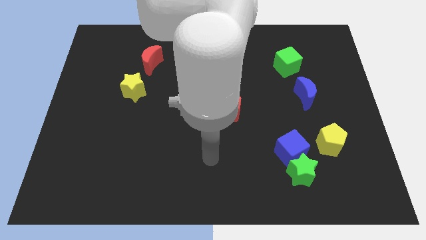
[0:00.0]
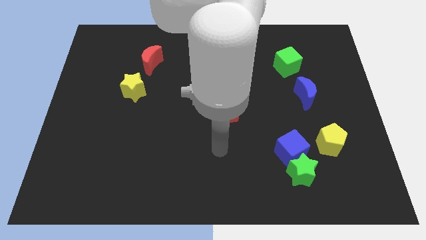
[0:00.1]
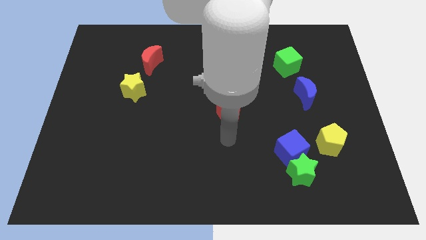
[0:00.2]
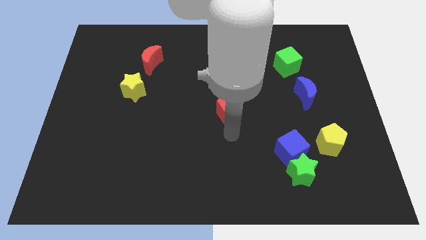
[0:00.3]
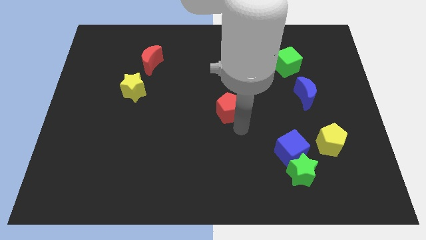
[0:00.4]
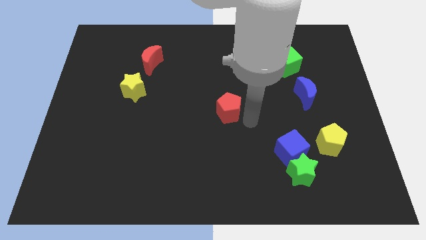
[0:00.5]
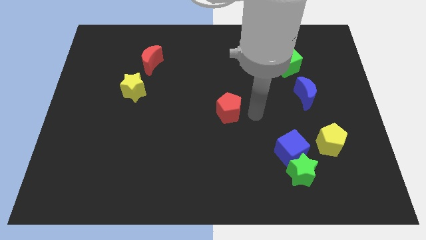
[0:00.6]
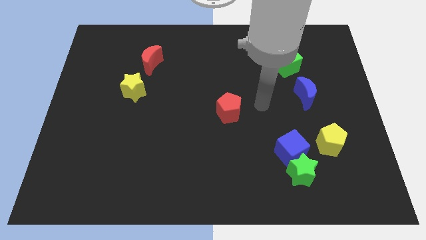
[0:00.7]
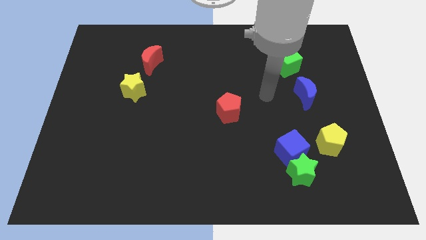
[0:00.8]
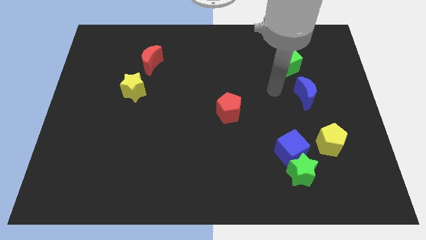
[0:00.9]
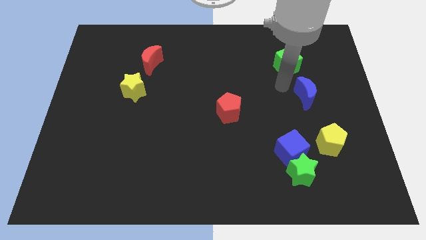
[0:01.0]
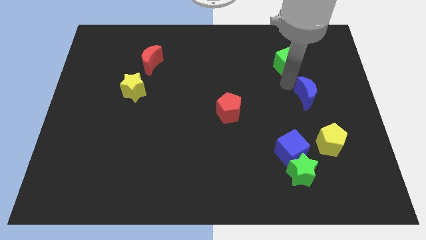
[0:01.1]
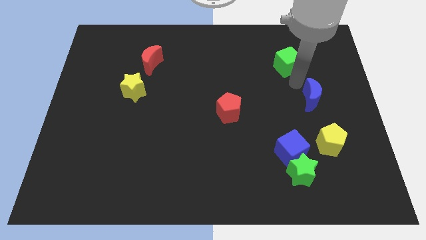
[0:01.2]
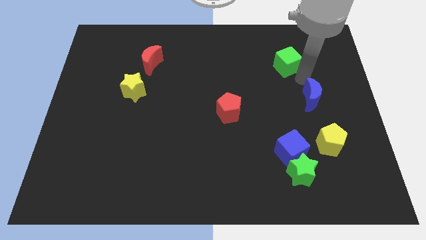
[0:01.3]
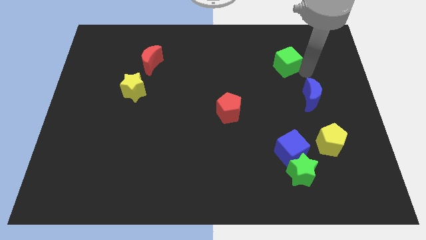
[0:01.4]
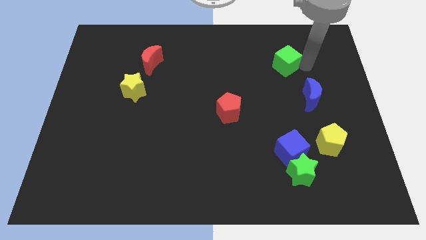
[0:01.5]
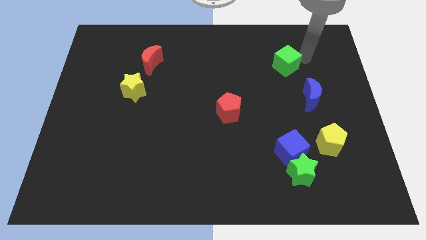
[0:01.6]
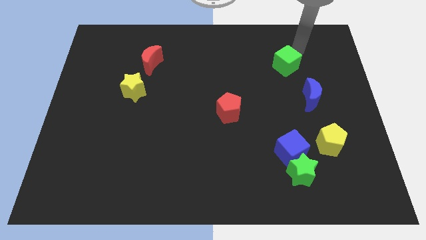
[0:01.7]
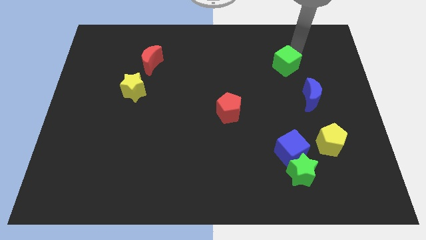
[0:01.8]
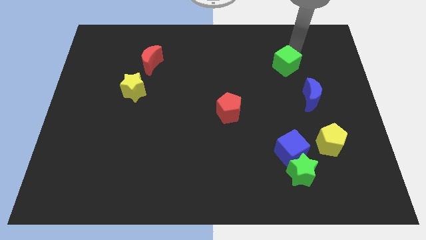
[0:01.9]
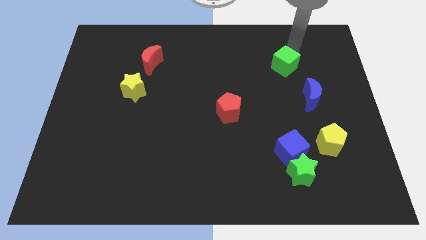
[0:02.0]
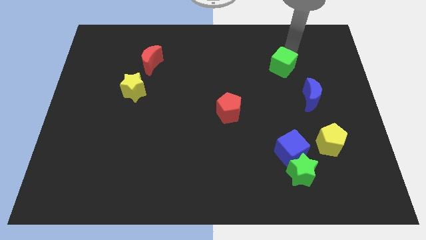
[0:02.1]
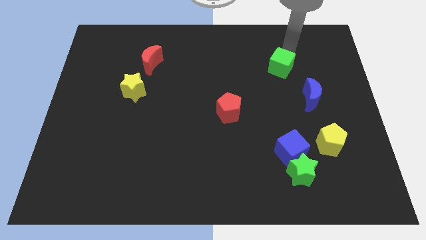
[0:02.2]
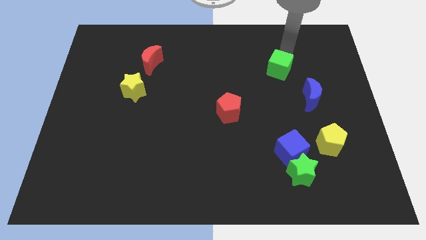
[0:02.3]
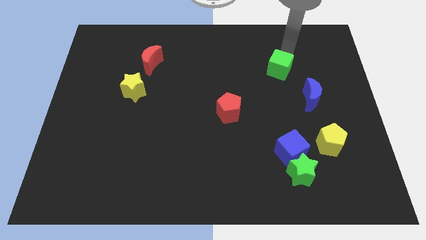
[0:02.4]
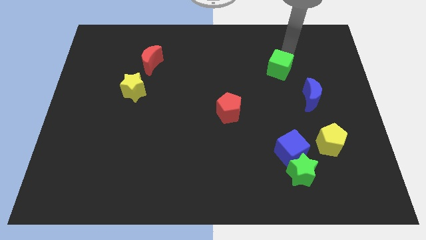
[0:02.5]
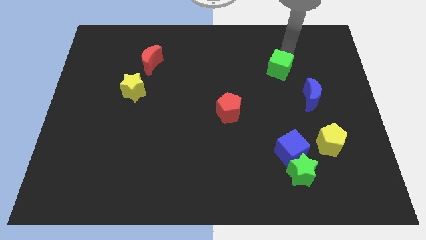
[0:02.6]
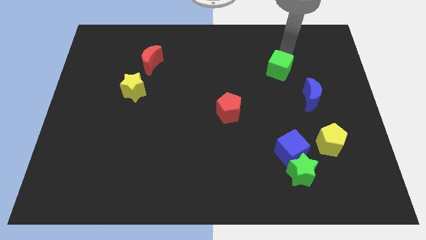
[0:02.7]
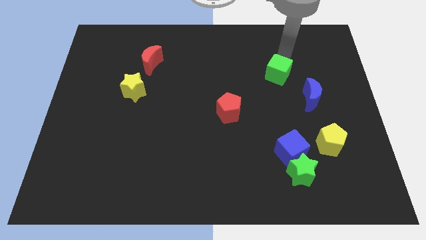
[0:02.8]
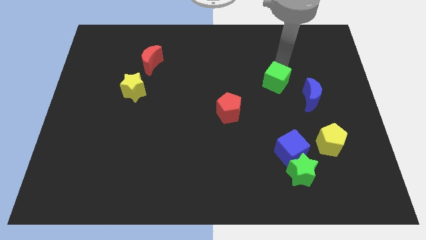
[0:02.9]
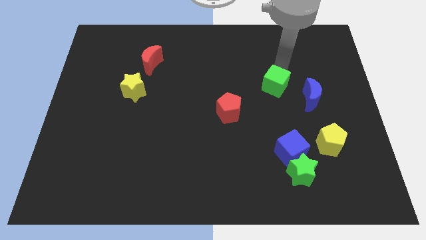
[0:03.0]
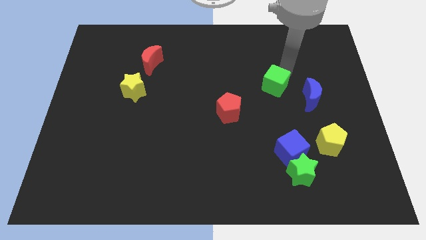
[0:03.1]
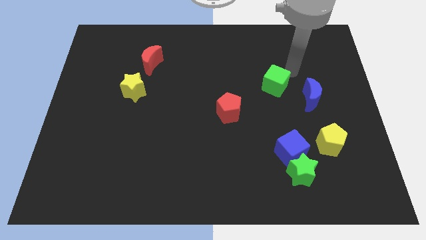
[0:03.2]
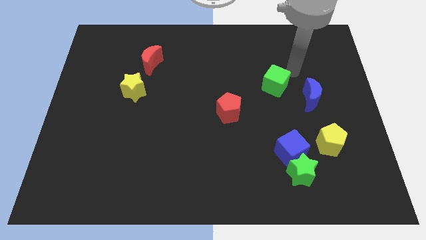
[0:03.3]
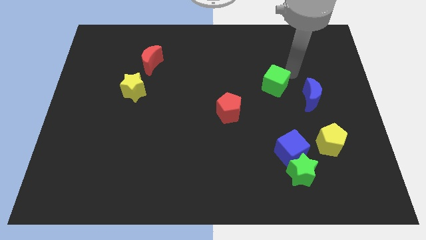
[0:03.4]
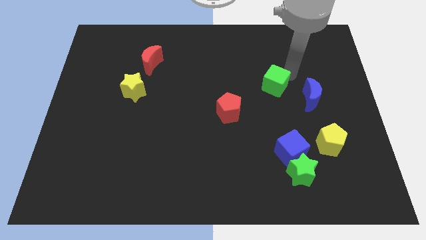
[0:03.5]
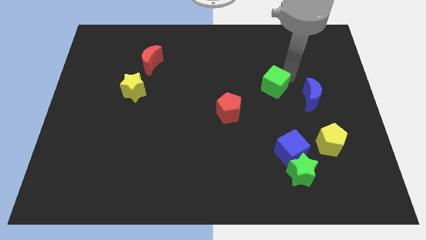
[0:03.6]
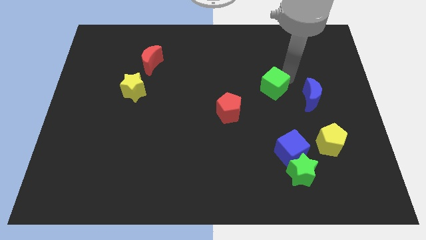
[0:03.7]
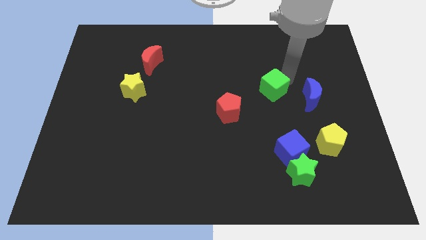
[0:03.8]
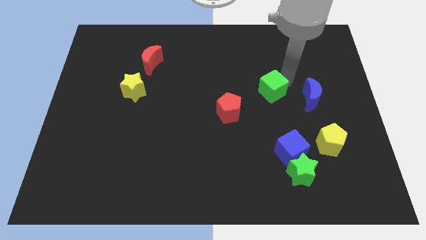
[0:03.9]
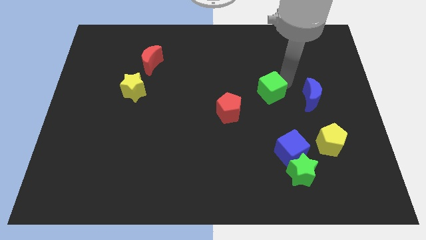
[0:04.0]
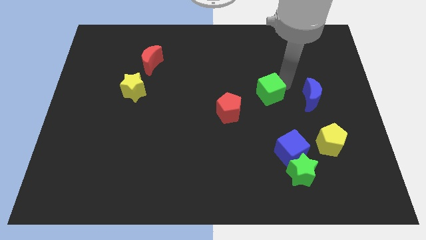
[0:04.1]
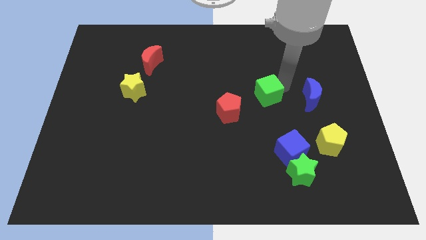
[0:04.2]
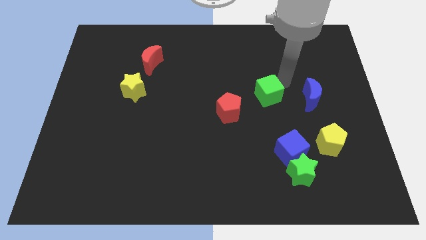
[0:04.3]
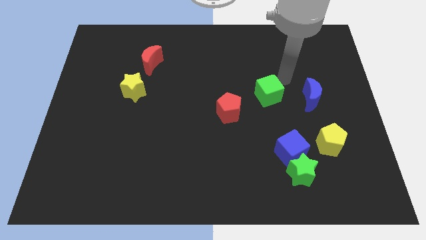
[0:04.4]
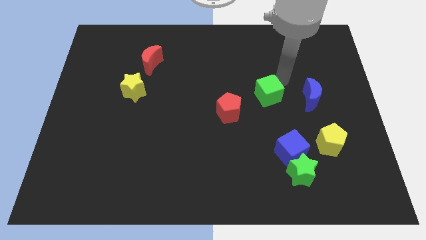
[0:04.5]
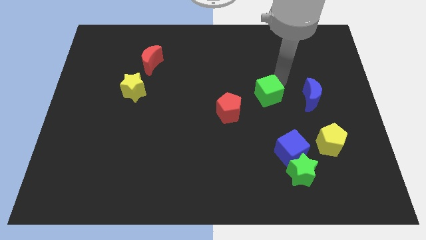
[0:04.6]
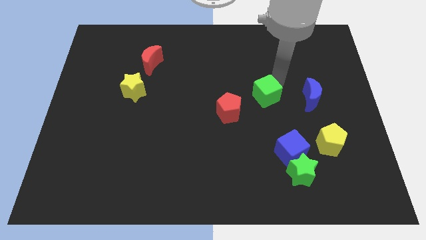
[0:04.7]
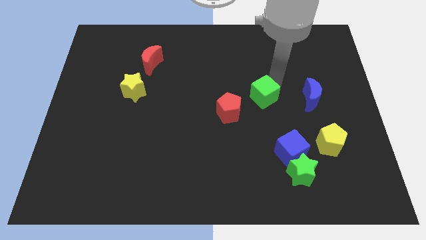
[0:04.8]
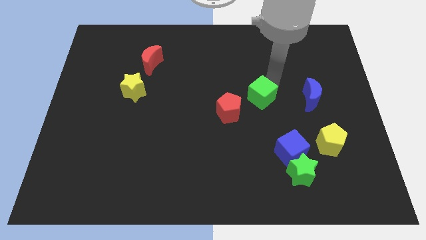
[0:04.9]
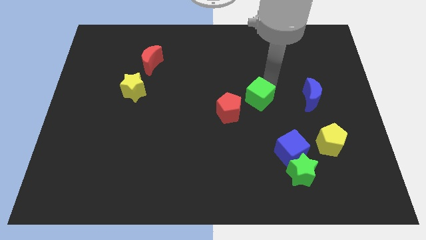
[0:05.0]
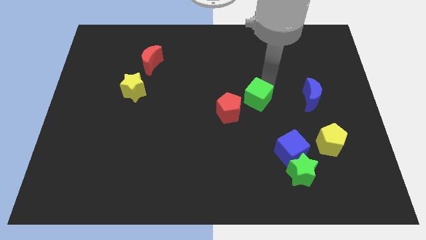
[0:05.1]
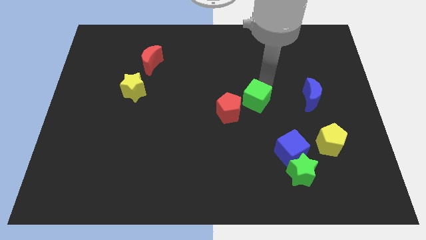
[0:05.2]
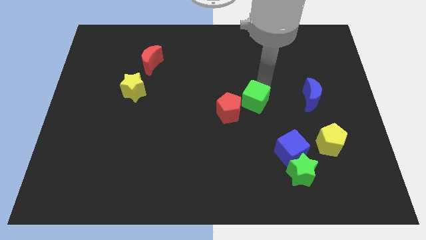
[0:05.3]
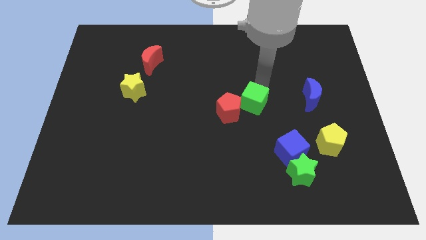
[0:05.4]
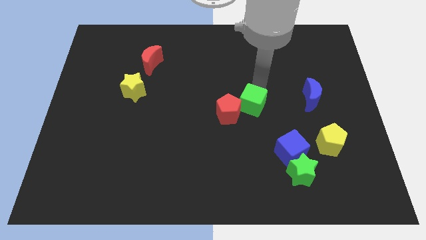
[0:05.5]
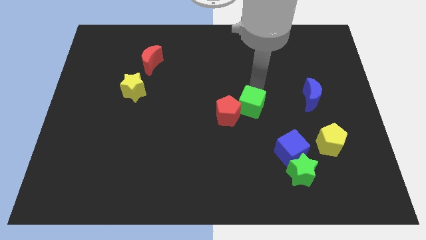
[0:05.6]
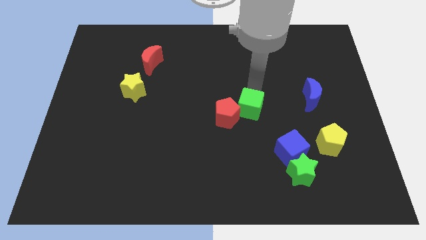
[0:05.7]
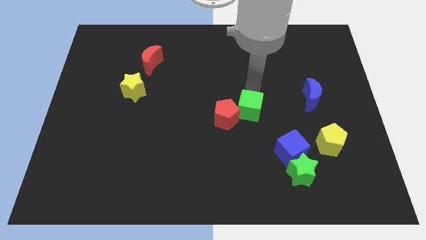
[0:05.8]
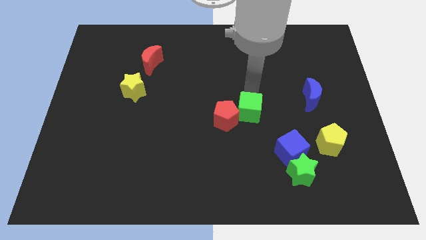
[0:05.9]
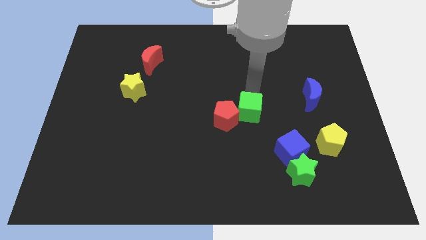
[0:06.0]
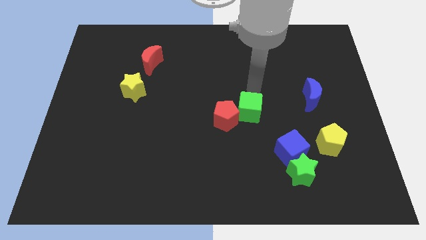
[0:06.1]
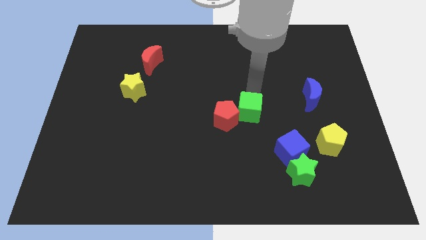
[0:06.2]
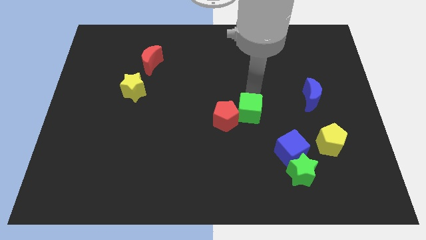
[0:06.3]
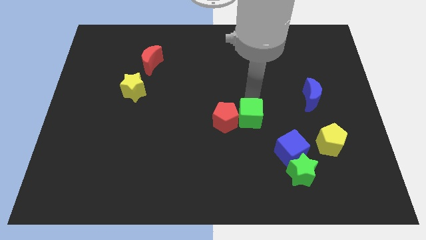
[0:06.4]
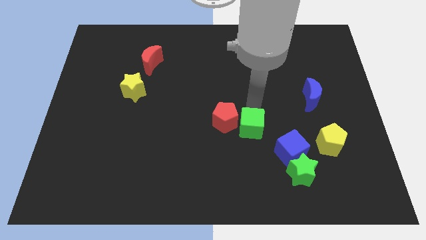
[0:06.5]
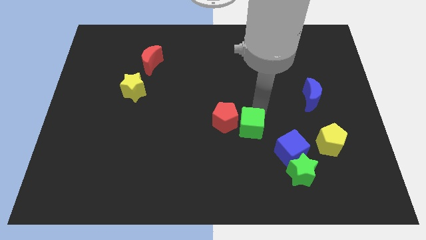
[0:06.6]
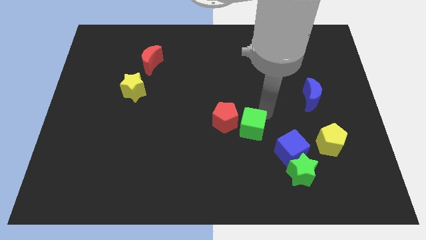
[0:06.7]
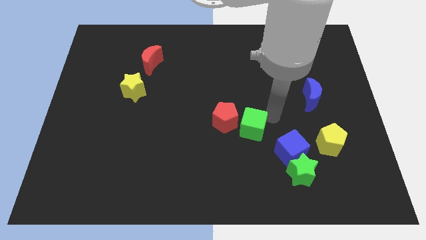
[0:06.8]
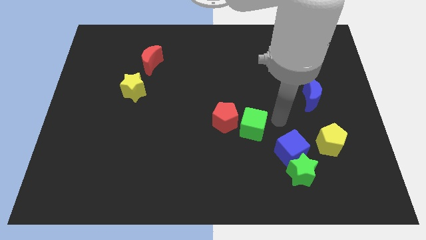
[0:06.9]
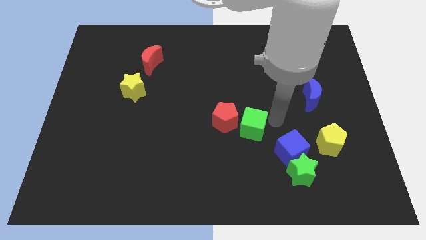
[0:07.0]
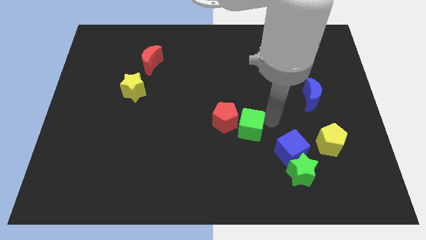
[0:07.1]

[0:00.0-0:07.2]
push the green cube down and left

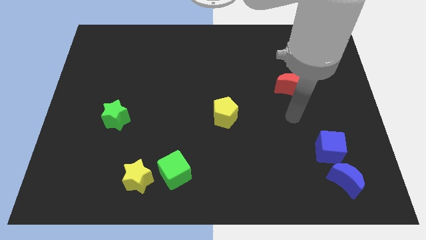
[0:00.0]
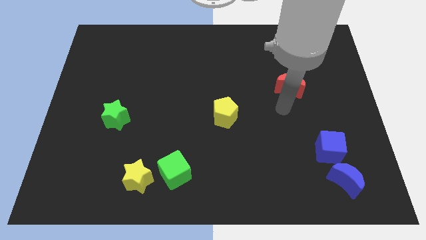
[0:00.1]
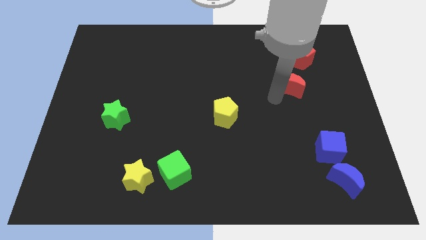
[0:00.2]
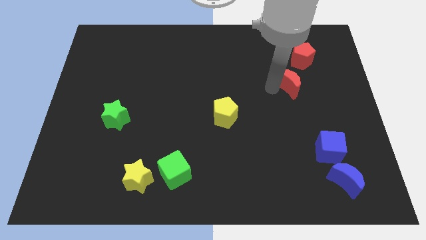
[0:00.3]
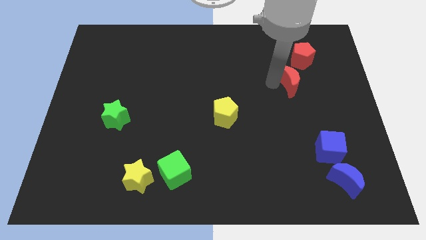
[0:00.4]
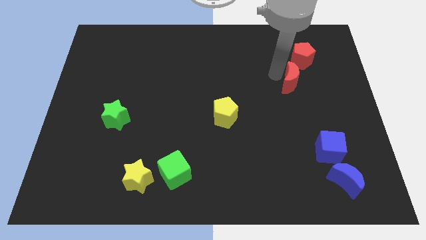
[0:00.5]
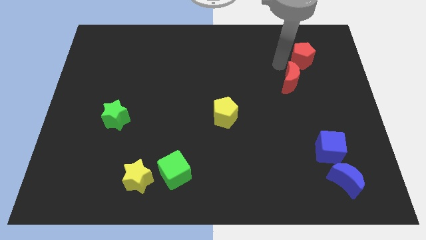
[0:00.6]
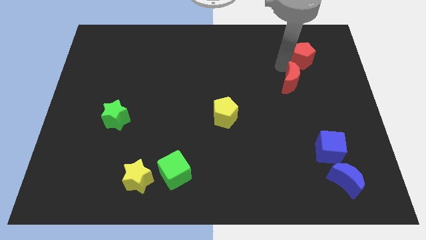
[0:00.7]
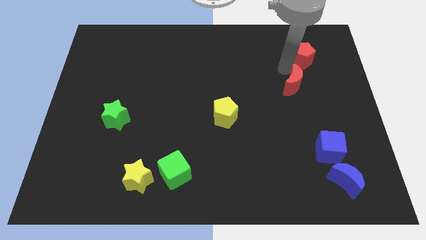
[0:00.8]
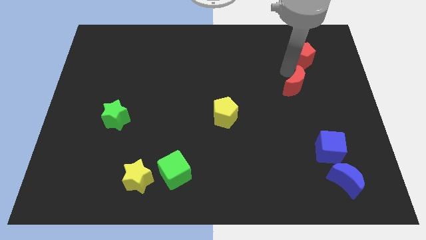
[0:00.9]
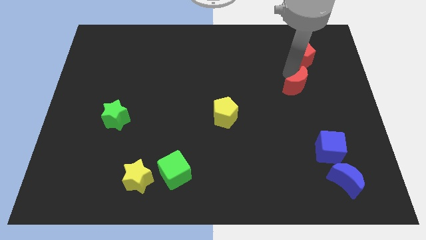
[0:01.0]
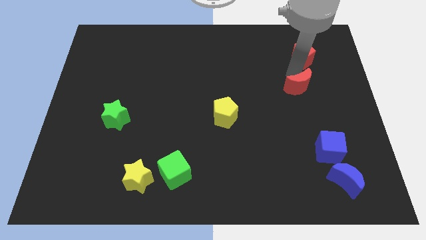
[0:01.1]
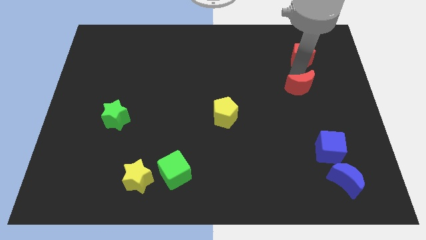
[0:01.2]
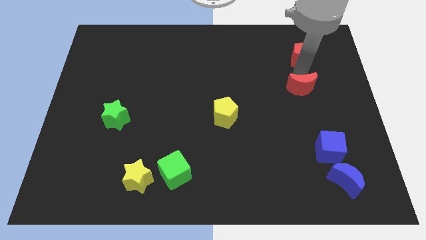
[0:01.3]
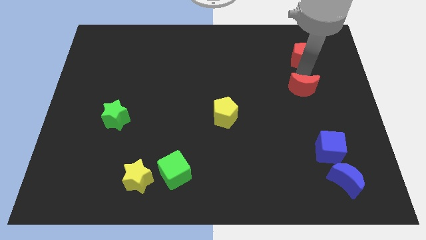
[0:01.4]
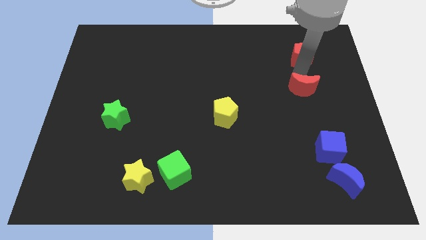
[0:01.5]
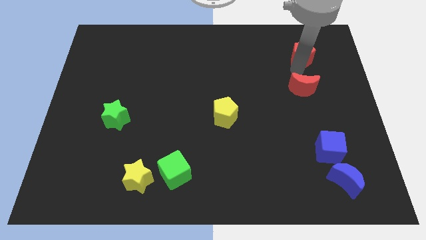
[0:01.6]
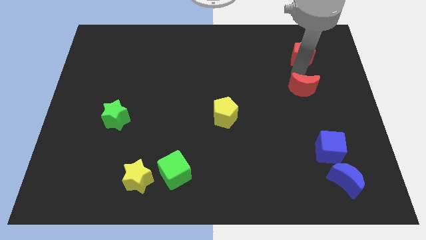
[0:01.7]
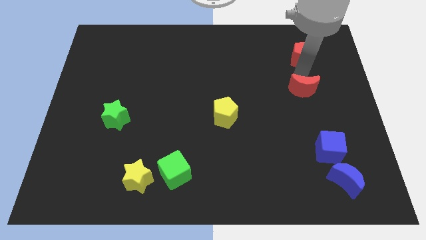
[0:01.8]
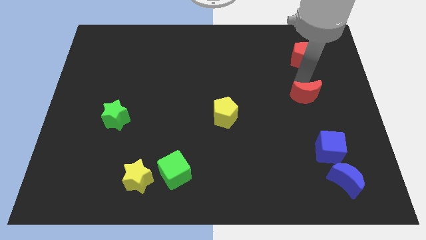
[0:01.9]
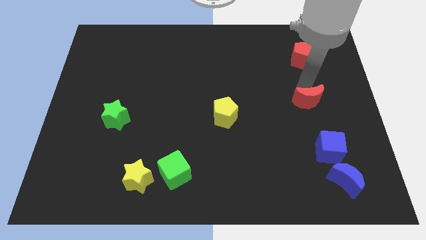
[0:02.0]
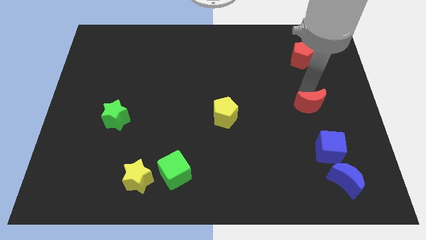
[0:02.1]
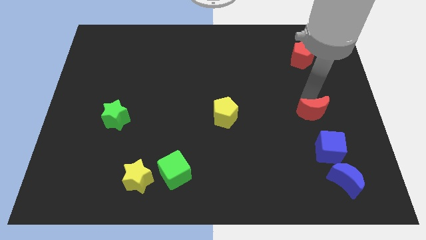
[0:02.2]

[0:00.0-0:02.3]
slide the red moon a little bit downwards
